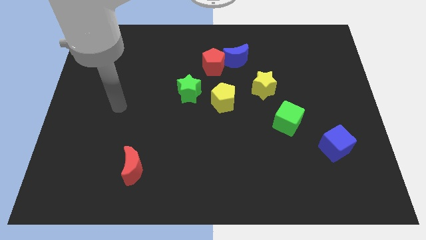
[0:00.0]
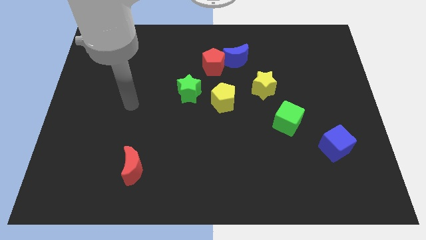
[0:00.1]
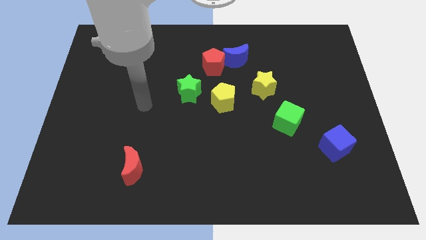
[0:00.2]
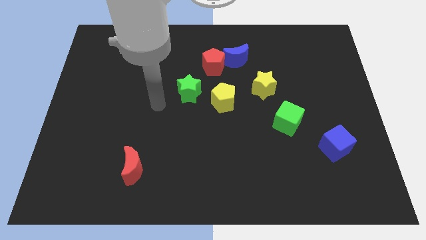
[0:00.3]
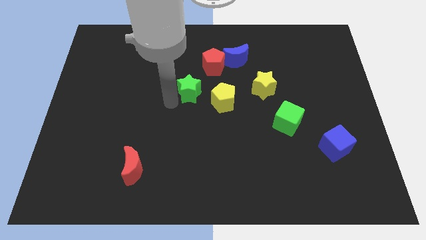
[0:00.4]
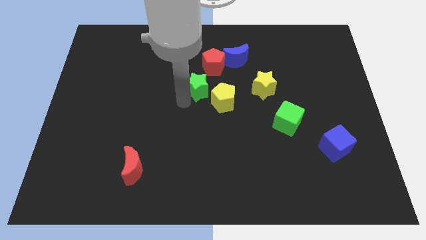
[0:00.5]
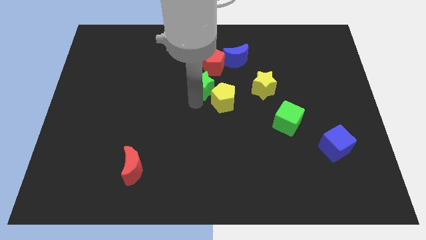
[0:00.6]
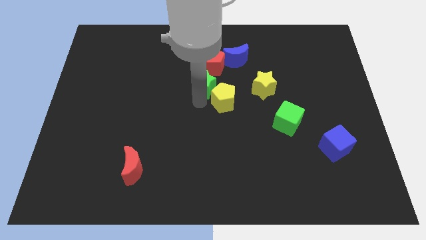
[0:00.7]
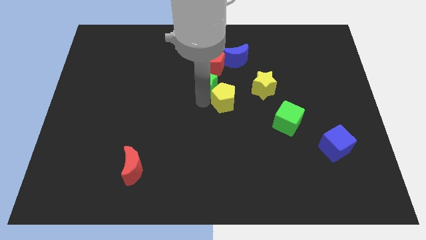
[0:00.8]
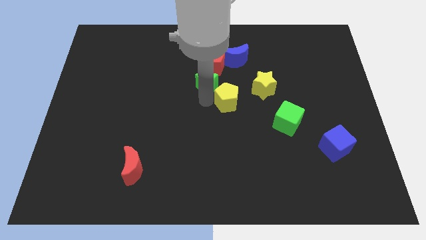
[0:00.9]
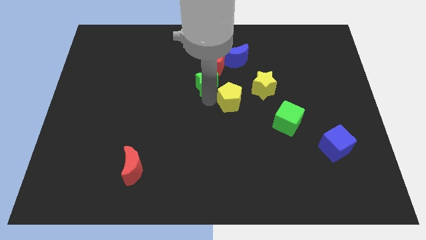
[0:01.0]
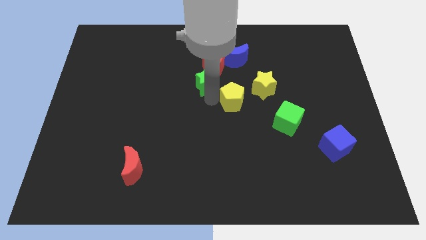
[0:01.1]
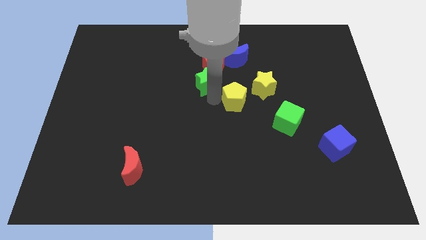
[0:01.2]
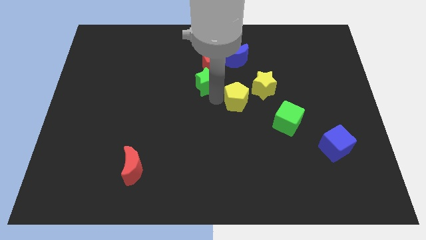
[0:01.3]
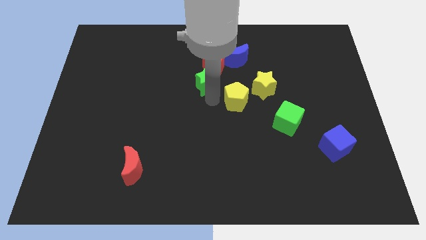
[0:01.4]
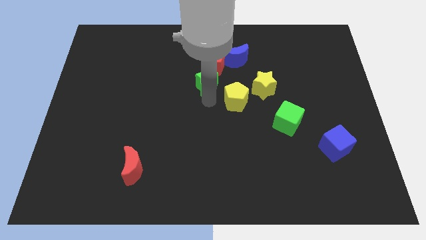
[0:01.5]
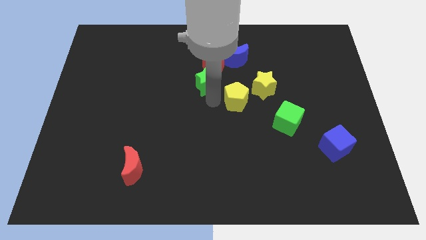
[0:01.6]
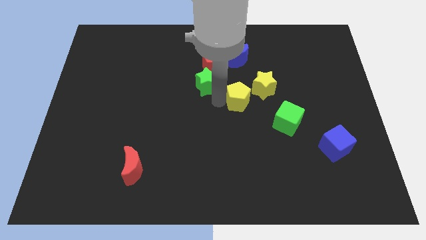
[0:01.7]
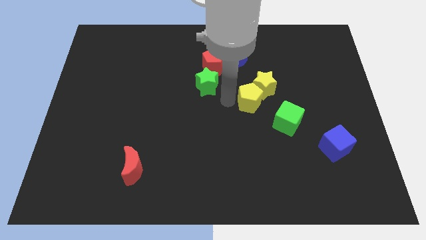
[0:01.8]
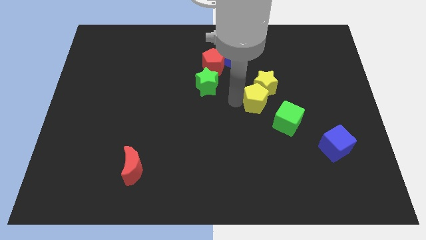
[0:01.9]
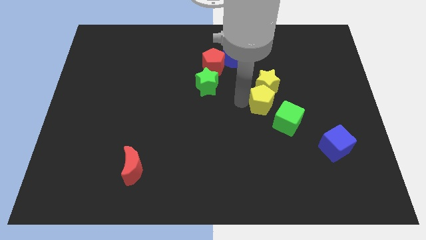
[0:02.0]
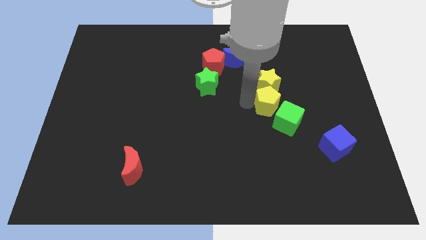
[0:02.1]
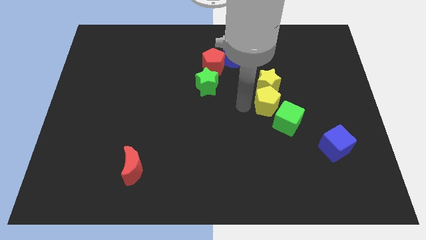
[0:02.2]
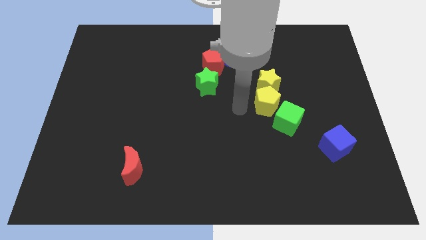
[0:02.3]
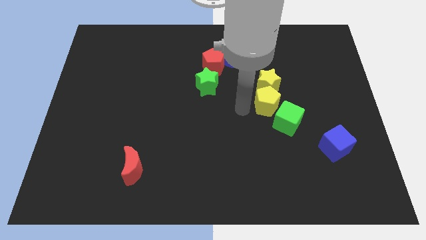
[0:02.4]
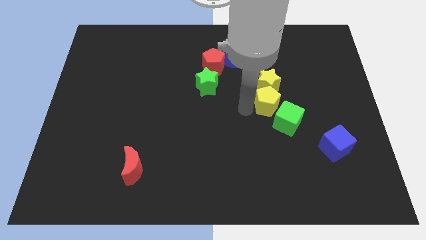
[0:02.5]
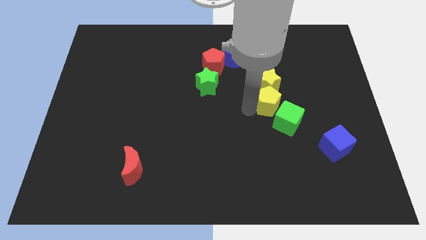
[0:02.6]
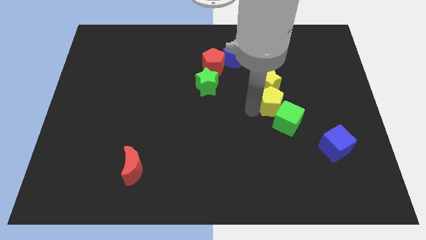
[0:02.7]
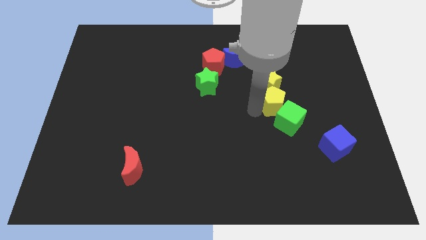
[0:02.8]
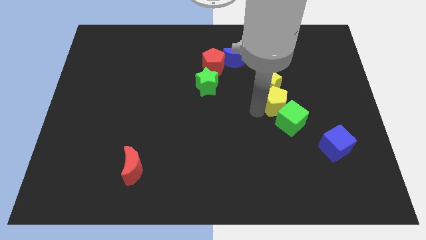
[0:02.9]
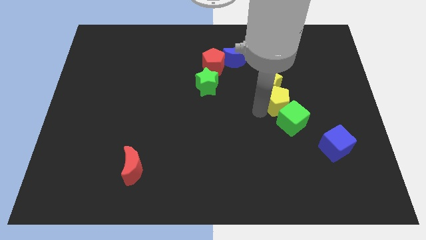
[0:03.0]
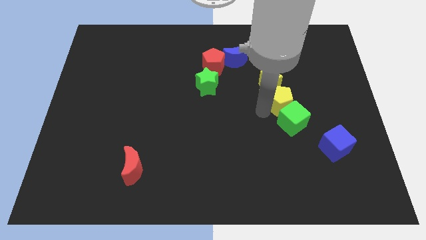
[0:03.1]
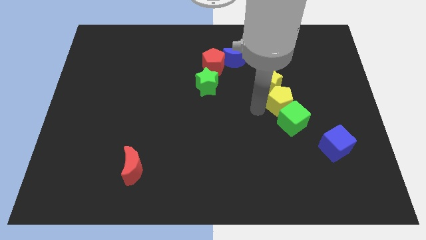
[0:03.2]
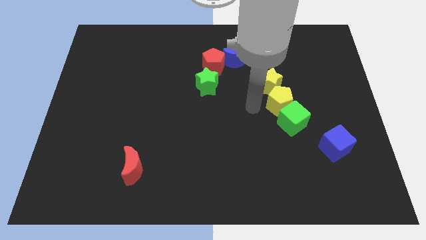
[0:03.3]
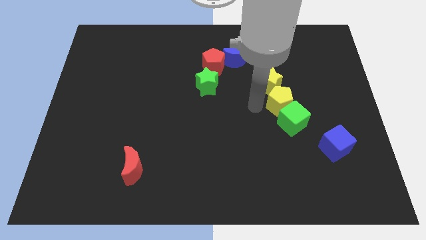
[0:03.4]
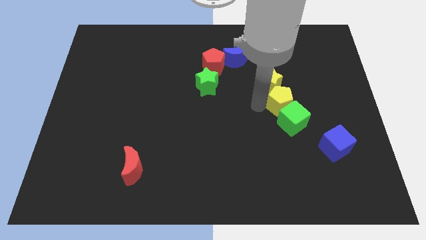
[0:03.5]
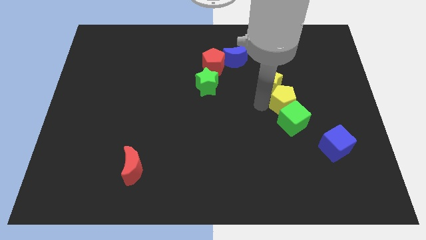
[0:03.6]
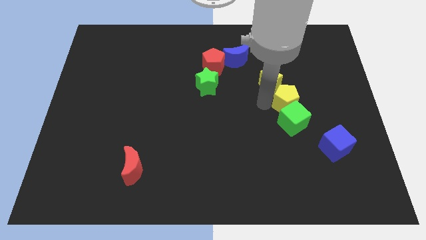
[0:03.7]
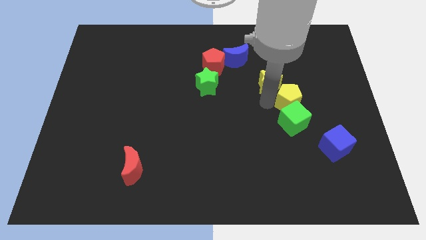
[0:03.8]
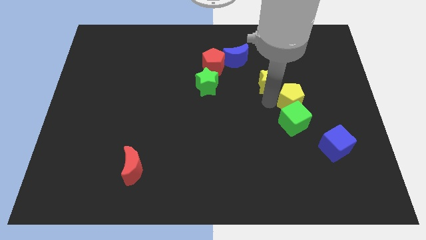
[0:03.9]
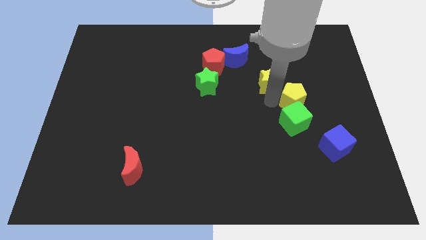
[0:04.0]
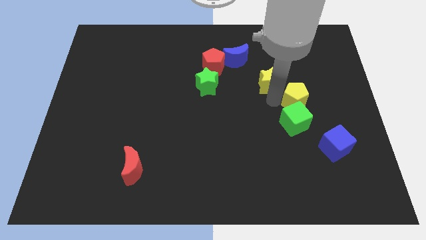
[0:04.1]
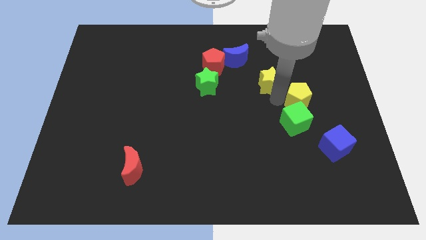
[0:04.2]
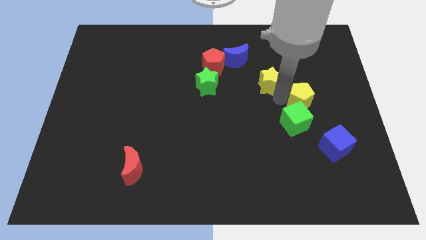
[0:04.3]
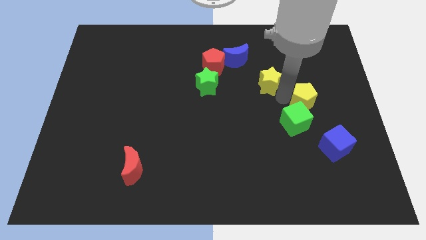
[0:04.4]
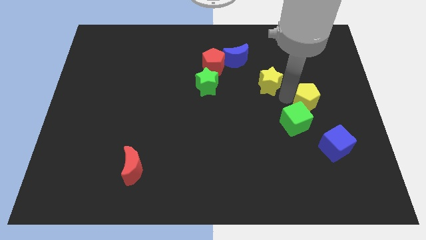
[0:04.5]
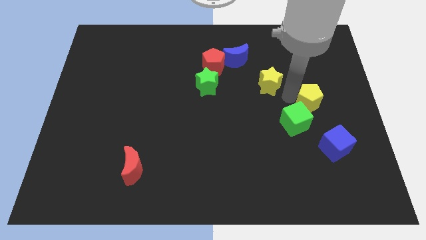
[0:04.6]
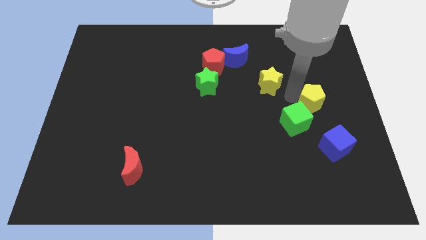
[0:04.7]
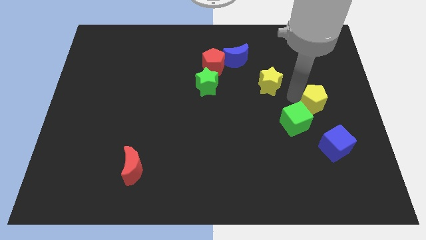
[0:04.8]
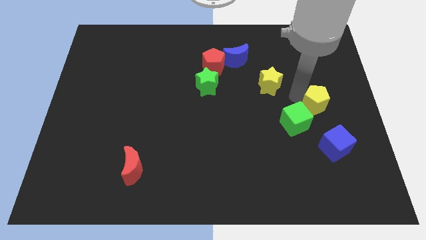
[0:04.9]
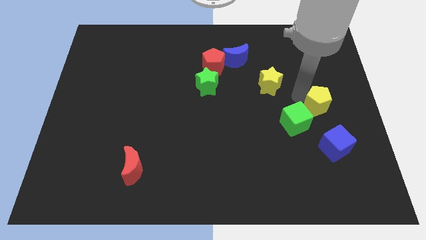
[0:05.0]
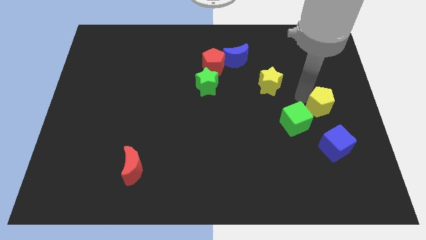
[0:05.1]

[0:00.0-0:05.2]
move the yellow pentagon to the right side
